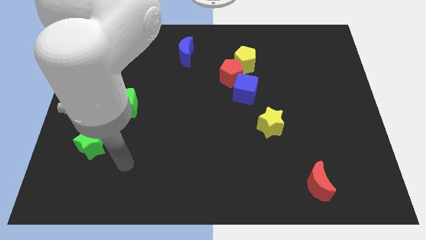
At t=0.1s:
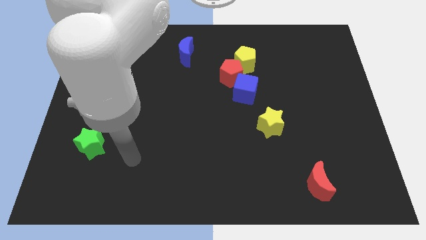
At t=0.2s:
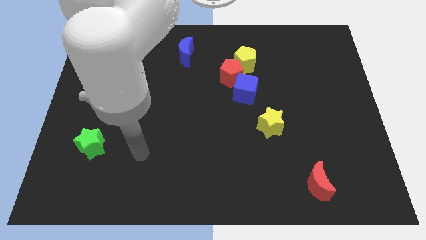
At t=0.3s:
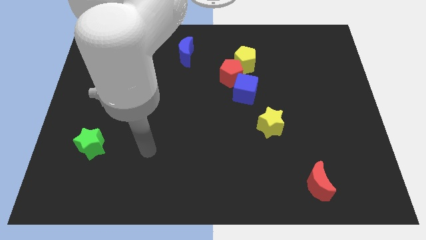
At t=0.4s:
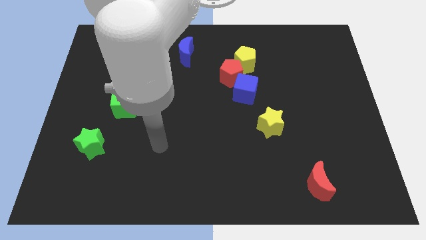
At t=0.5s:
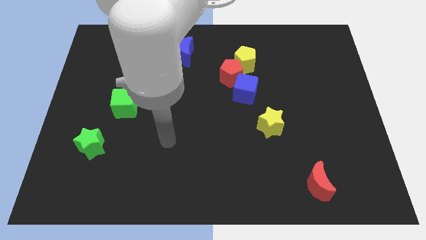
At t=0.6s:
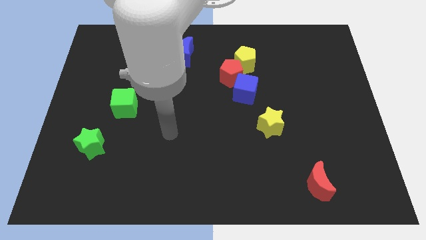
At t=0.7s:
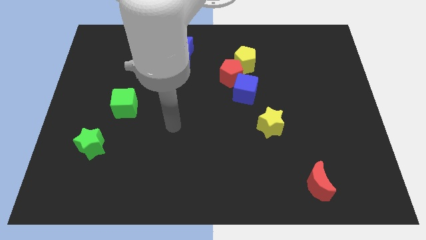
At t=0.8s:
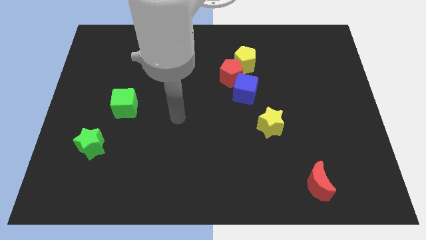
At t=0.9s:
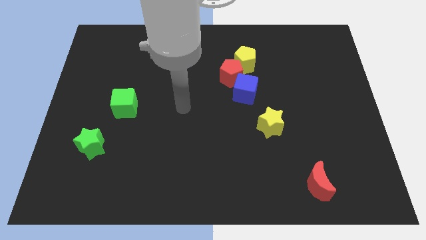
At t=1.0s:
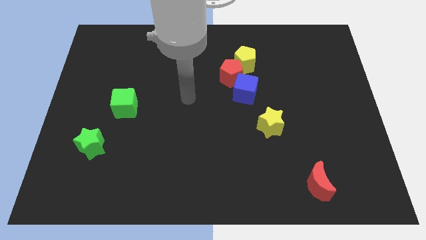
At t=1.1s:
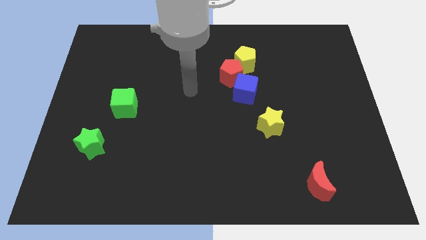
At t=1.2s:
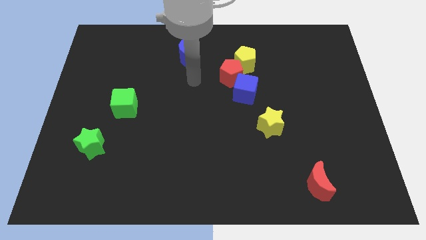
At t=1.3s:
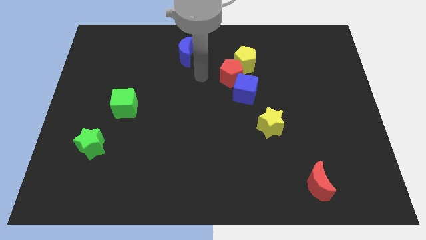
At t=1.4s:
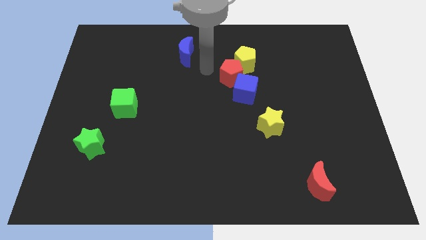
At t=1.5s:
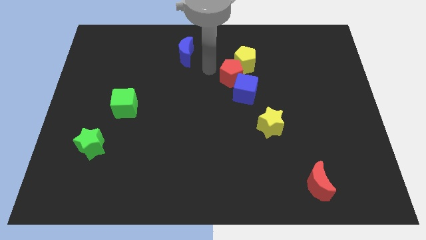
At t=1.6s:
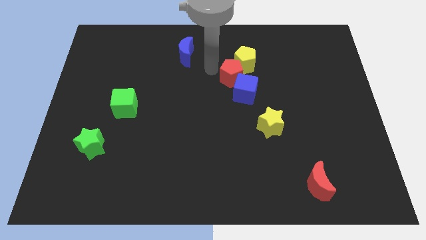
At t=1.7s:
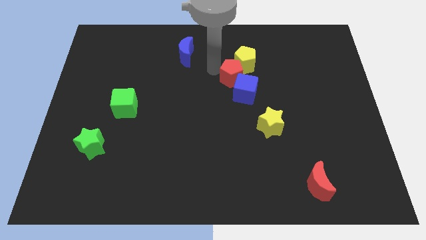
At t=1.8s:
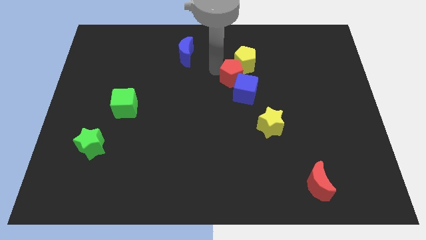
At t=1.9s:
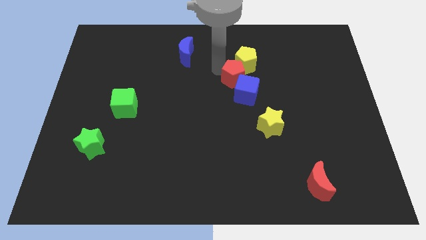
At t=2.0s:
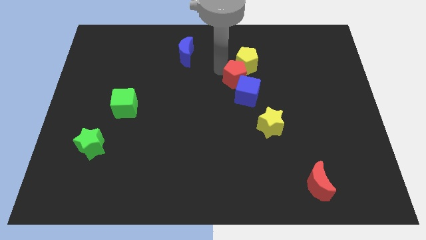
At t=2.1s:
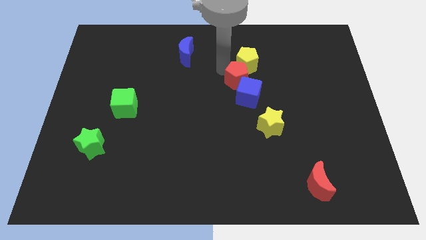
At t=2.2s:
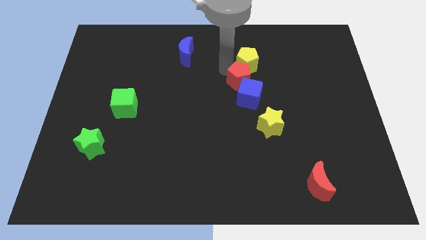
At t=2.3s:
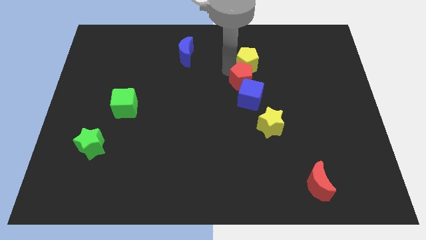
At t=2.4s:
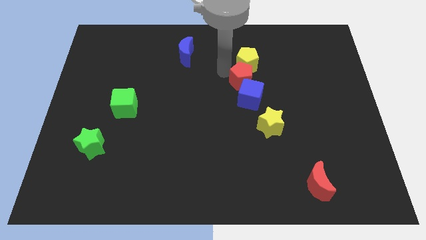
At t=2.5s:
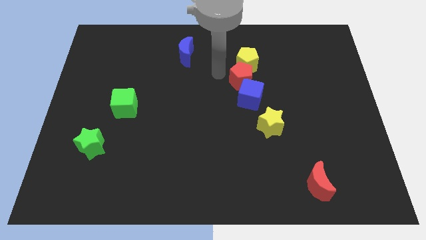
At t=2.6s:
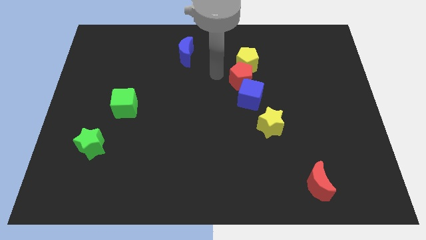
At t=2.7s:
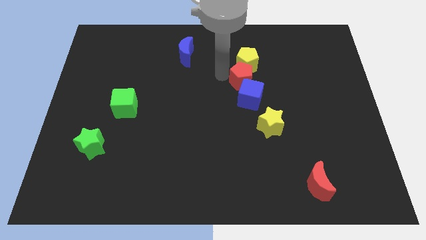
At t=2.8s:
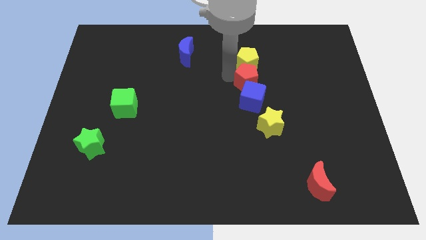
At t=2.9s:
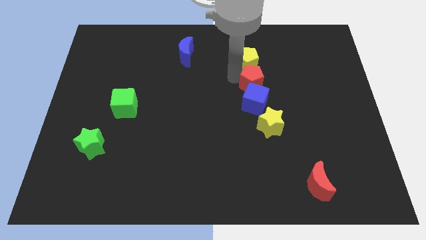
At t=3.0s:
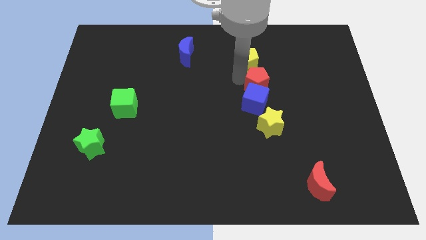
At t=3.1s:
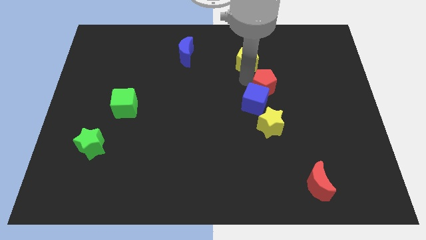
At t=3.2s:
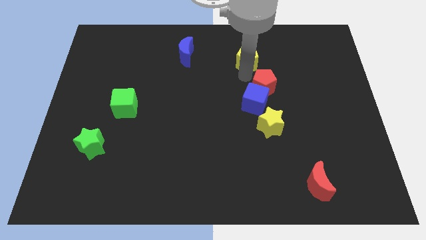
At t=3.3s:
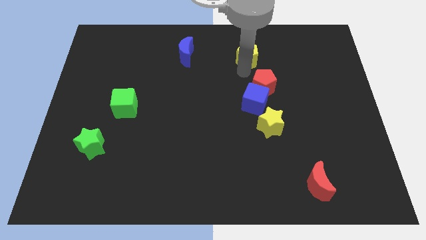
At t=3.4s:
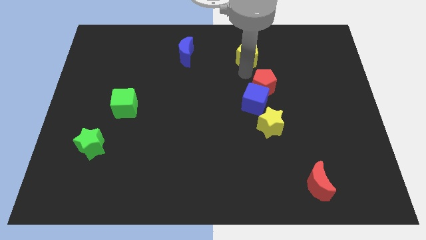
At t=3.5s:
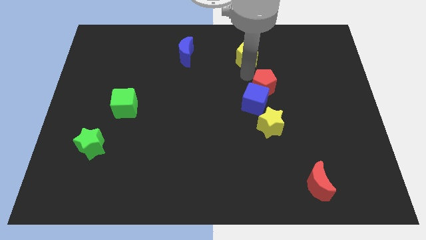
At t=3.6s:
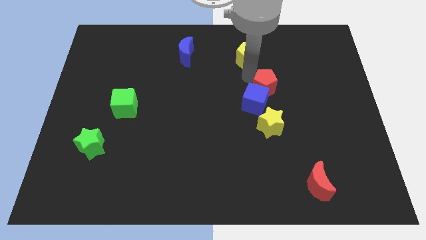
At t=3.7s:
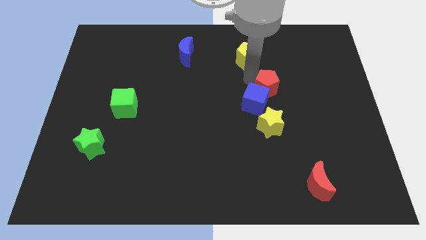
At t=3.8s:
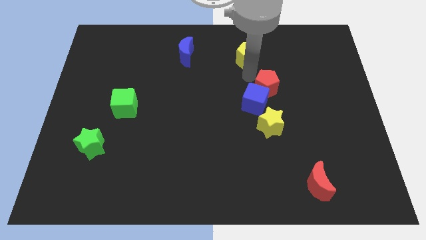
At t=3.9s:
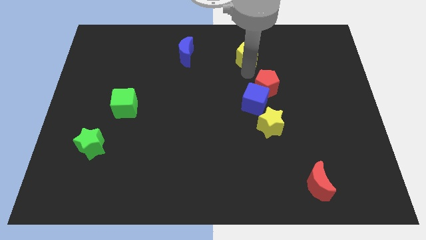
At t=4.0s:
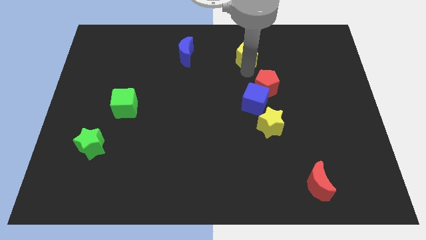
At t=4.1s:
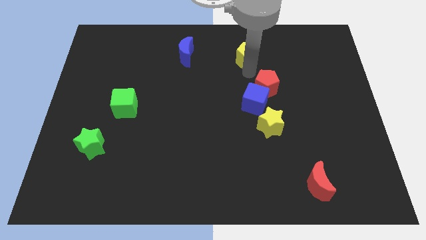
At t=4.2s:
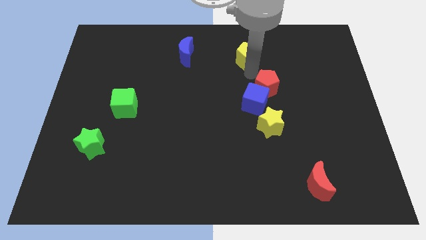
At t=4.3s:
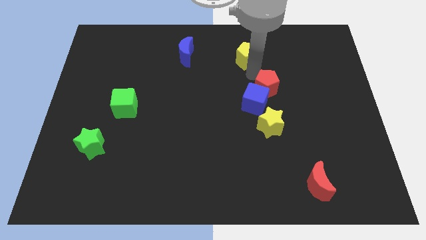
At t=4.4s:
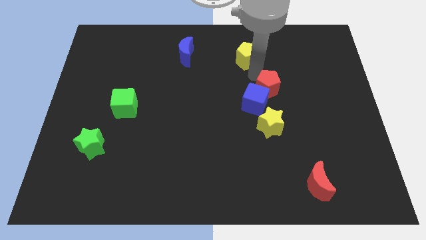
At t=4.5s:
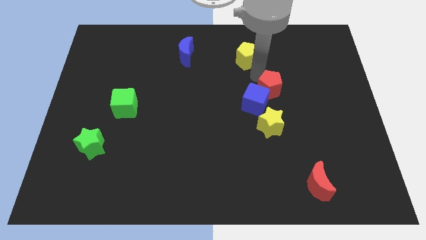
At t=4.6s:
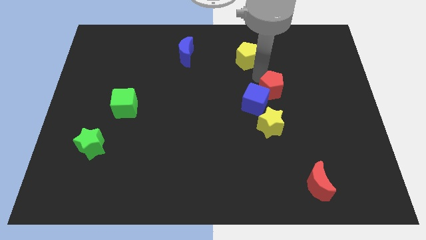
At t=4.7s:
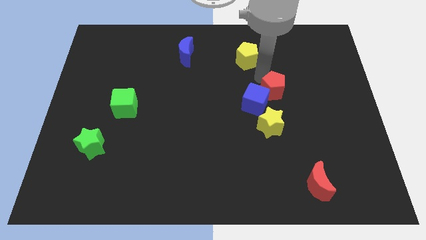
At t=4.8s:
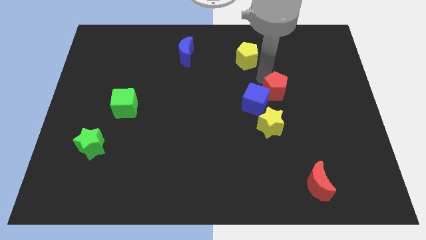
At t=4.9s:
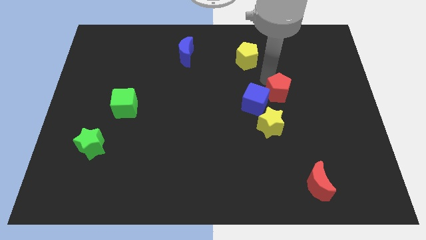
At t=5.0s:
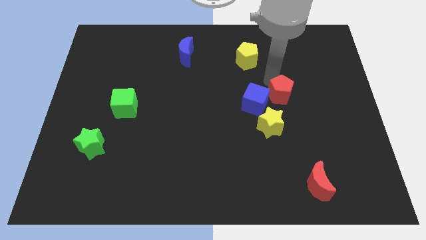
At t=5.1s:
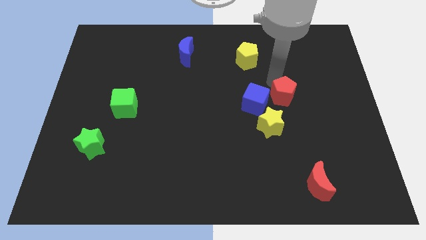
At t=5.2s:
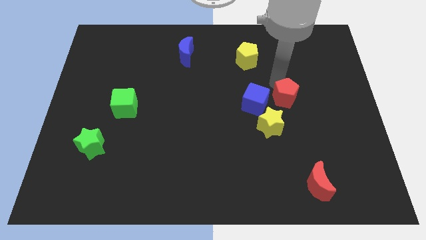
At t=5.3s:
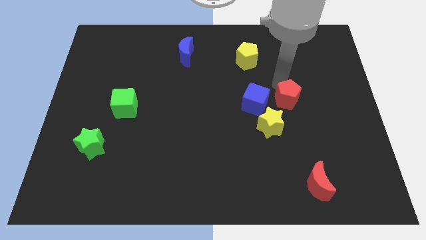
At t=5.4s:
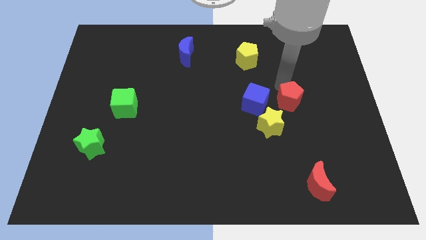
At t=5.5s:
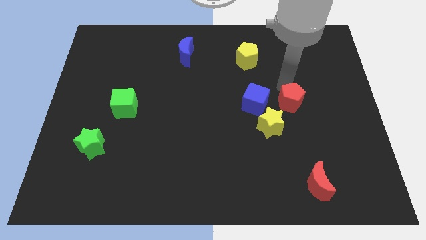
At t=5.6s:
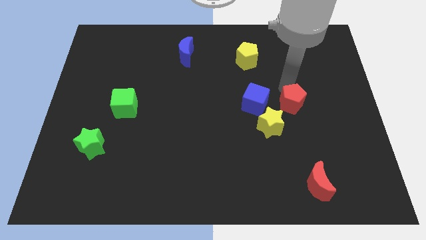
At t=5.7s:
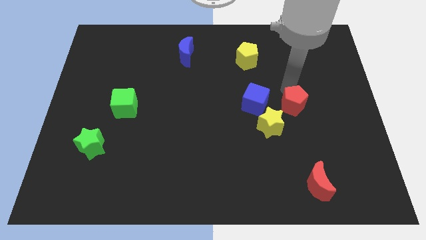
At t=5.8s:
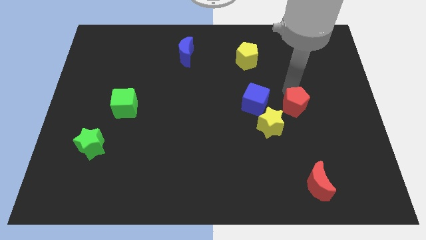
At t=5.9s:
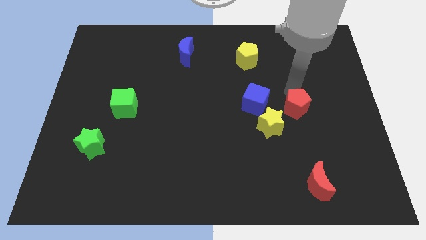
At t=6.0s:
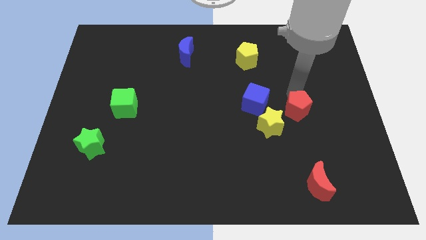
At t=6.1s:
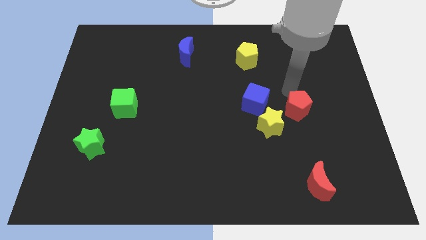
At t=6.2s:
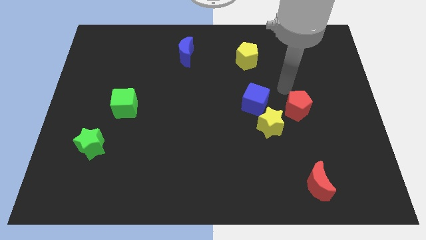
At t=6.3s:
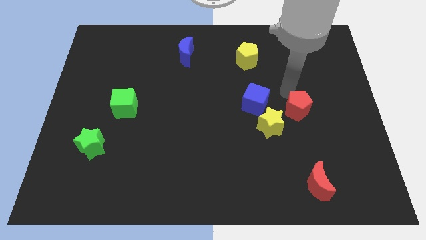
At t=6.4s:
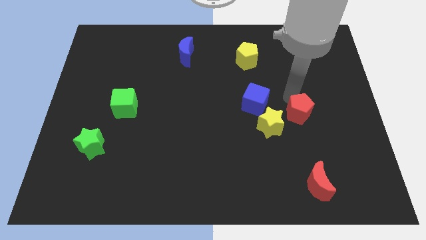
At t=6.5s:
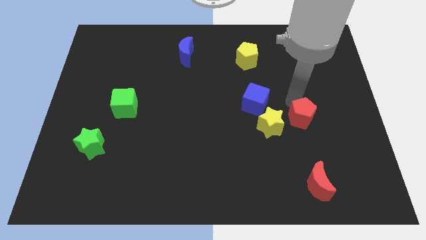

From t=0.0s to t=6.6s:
push the red pentagon diagonally down and right

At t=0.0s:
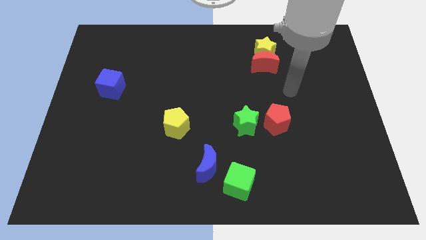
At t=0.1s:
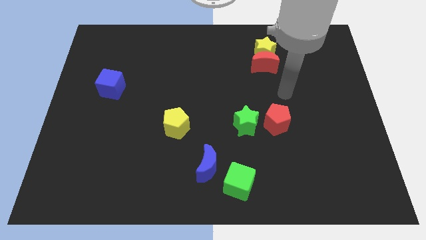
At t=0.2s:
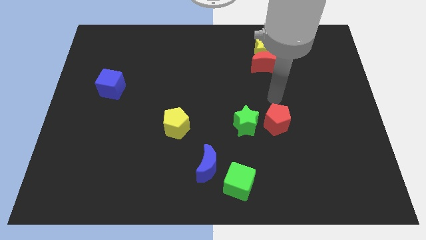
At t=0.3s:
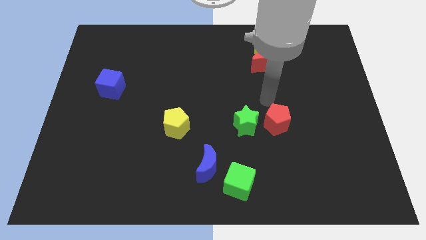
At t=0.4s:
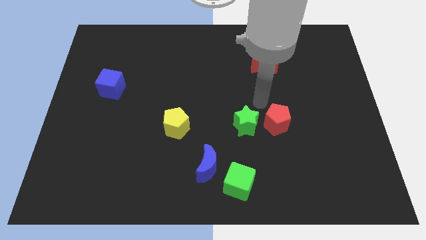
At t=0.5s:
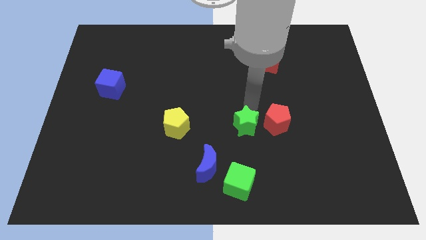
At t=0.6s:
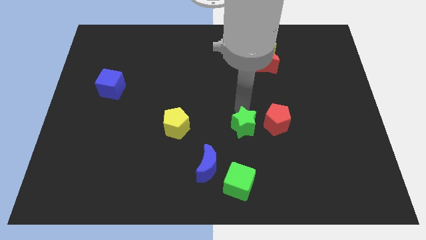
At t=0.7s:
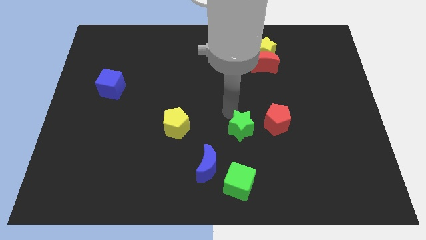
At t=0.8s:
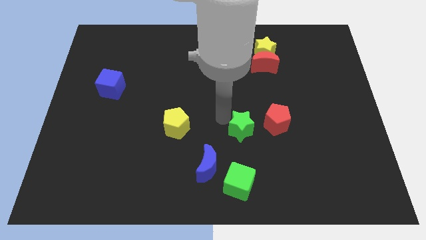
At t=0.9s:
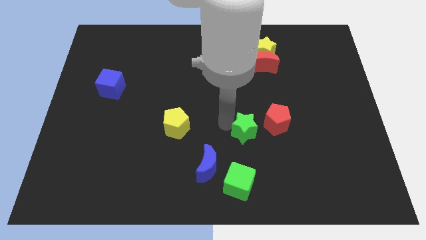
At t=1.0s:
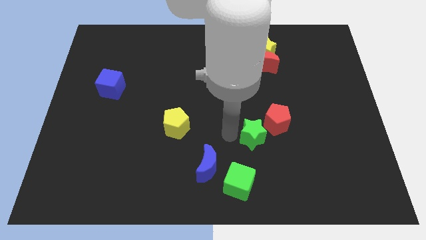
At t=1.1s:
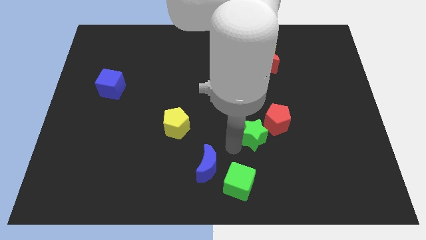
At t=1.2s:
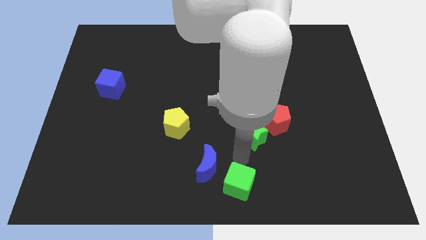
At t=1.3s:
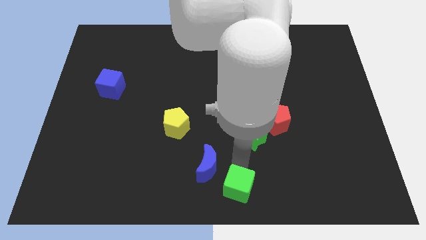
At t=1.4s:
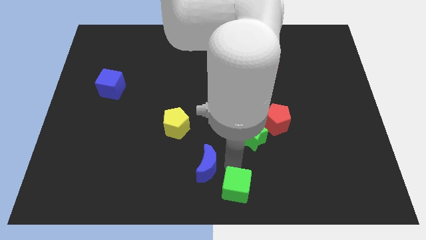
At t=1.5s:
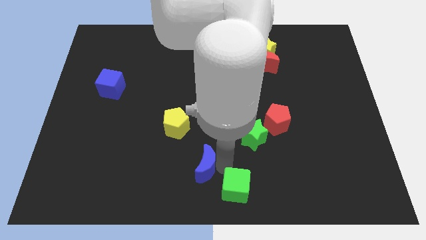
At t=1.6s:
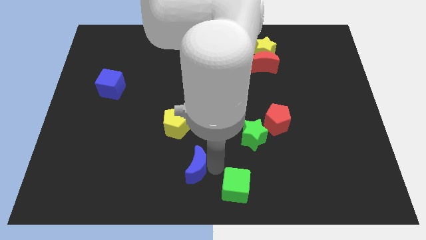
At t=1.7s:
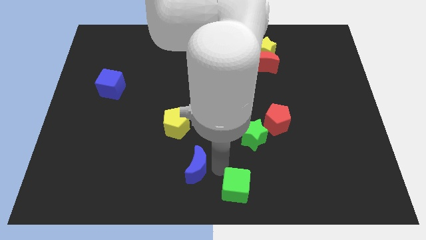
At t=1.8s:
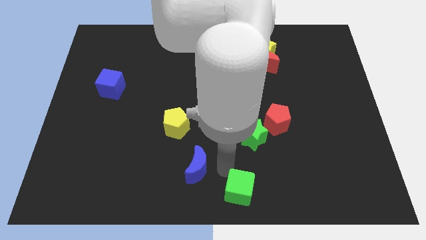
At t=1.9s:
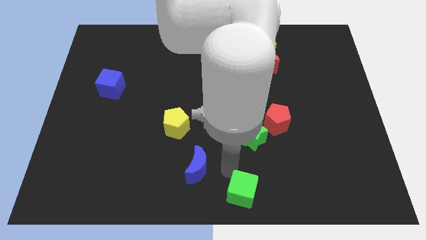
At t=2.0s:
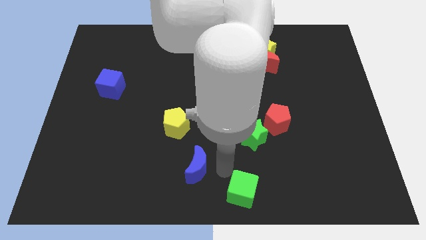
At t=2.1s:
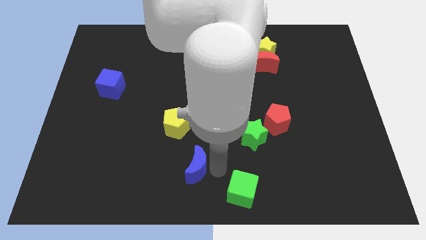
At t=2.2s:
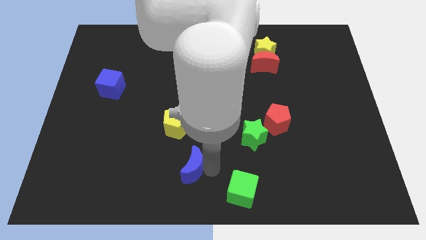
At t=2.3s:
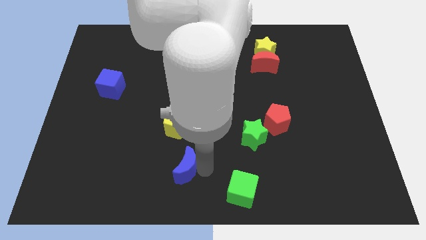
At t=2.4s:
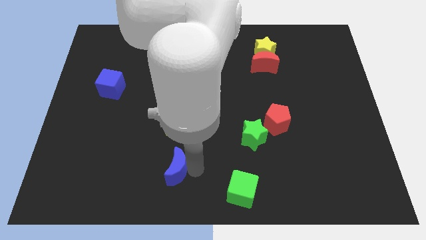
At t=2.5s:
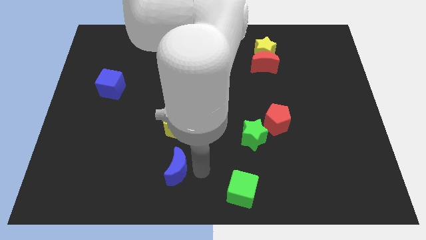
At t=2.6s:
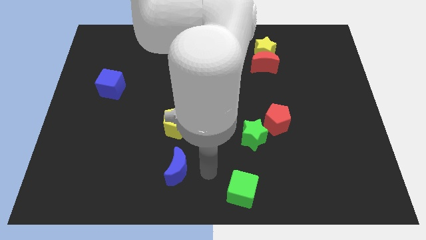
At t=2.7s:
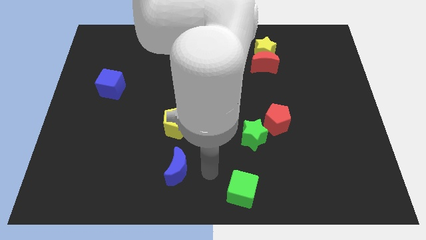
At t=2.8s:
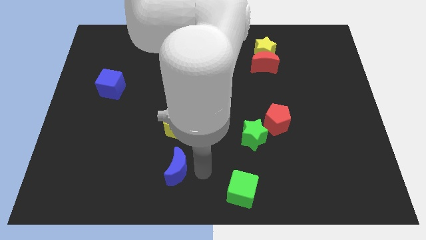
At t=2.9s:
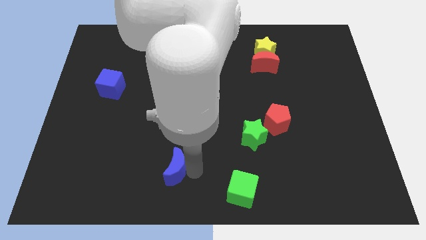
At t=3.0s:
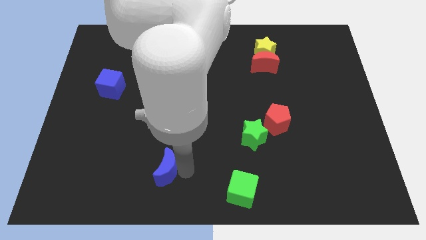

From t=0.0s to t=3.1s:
push the blue moon to the left a bit
